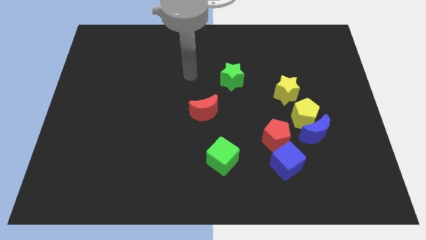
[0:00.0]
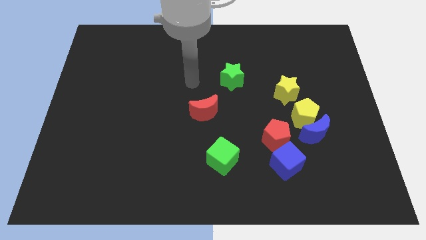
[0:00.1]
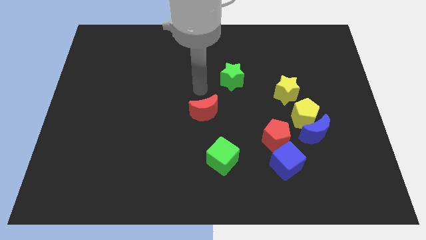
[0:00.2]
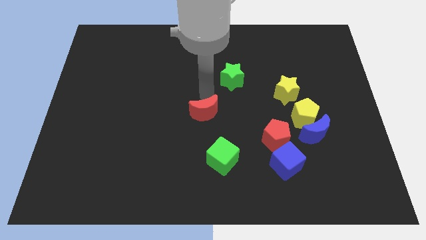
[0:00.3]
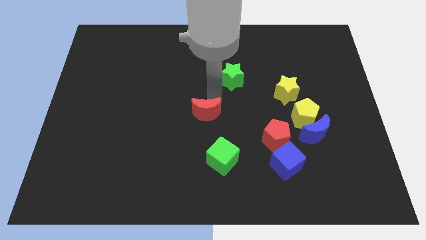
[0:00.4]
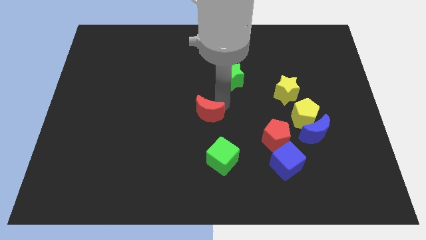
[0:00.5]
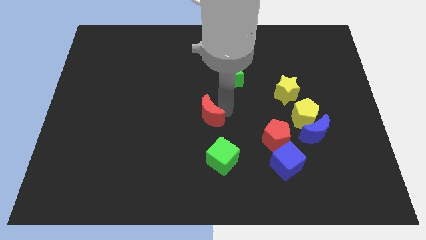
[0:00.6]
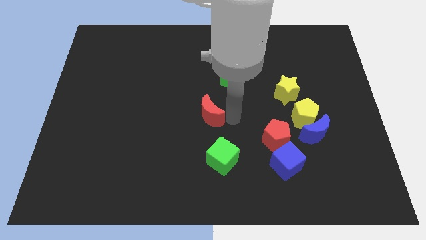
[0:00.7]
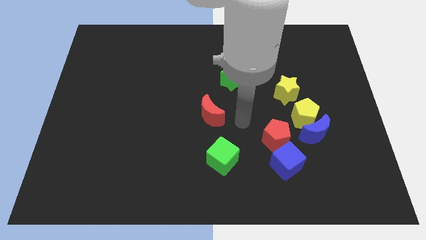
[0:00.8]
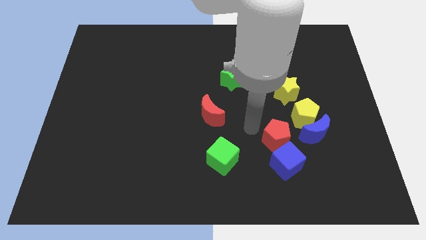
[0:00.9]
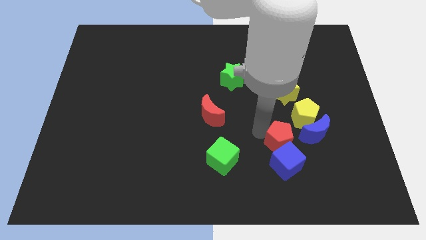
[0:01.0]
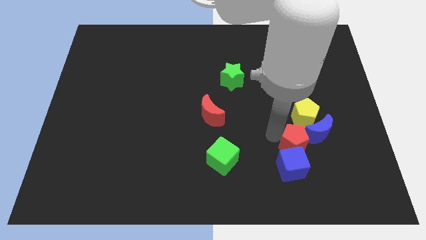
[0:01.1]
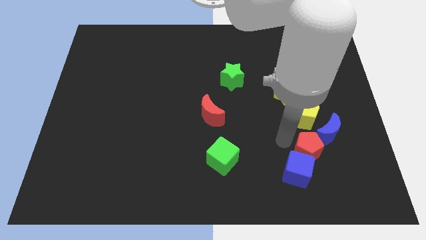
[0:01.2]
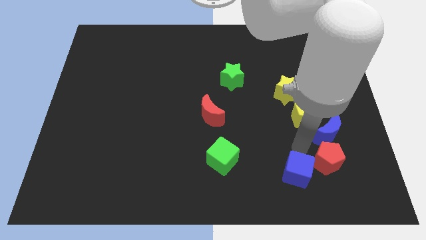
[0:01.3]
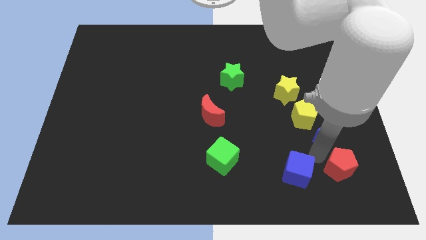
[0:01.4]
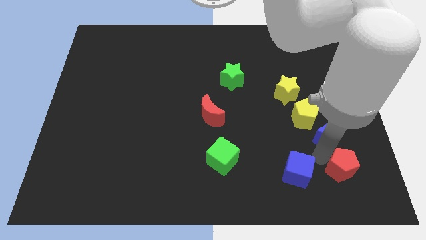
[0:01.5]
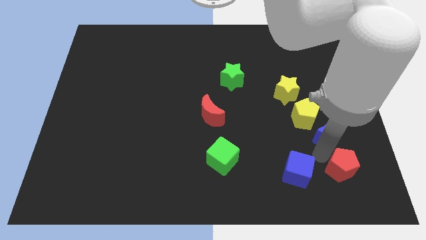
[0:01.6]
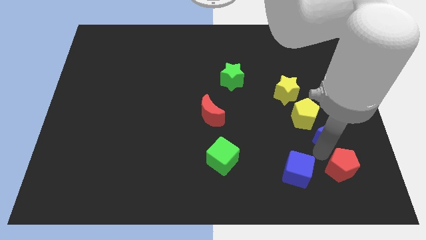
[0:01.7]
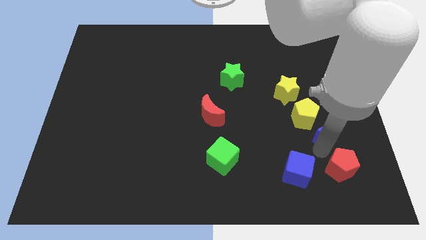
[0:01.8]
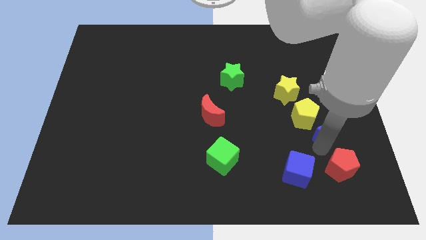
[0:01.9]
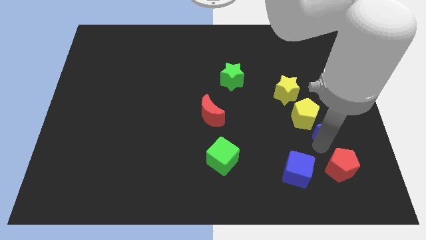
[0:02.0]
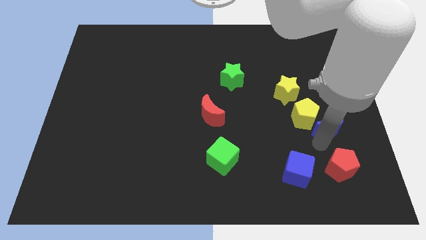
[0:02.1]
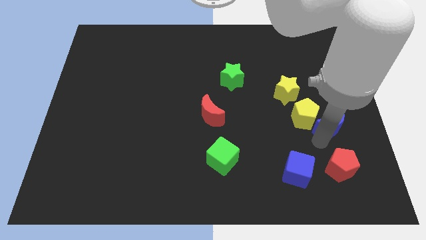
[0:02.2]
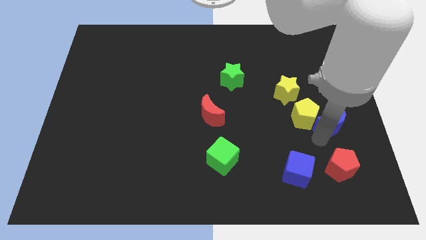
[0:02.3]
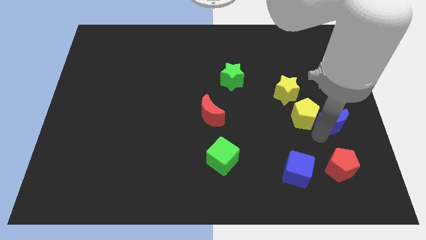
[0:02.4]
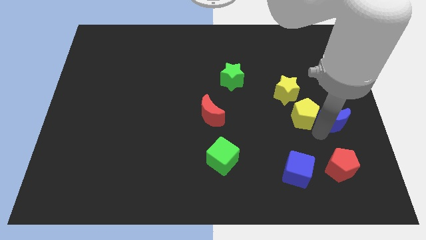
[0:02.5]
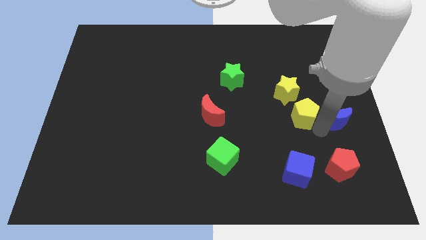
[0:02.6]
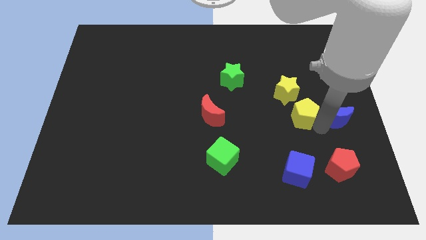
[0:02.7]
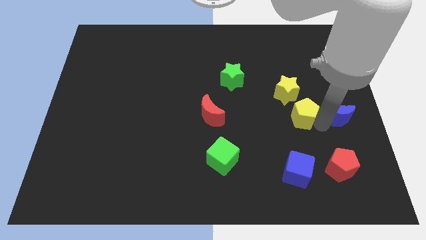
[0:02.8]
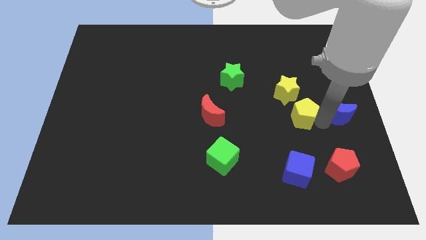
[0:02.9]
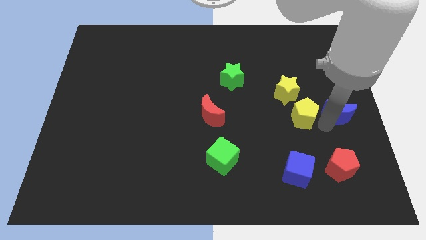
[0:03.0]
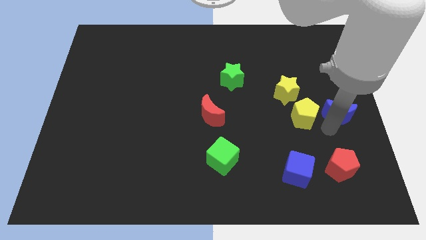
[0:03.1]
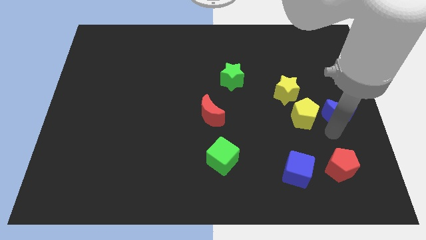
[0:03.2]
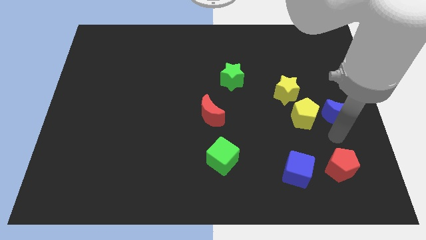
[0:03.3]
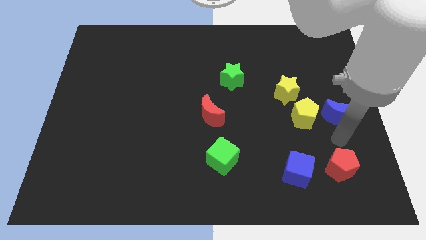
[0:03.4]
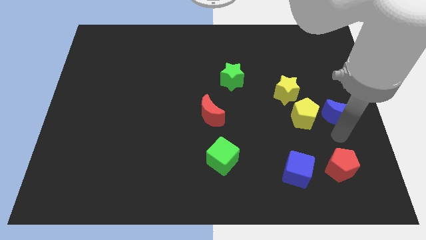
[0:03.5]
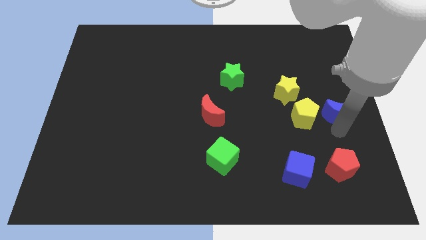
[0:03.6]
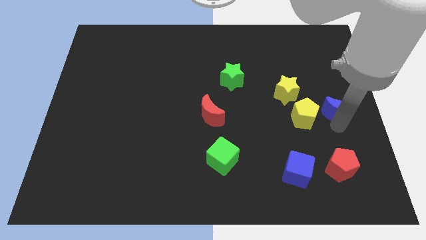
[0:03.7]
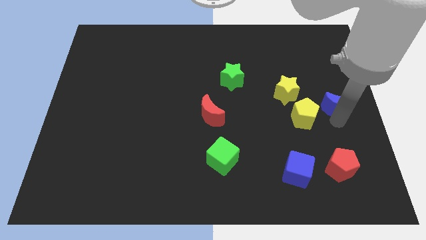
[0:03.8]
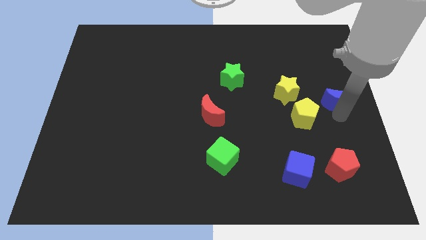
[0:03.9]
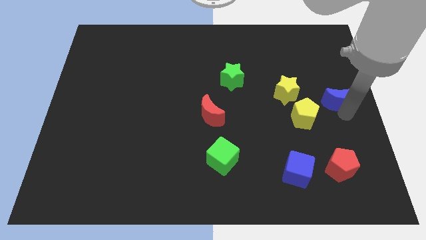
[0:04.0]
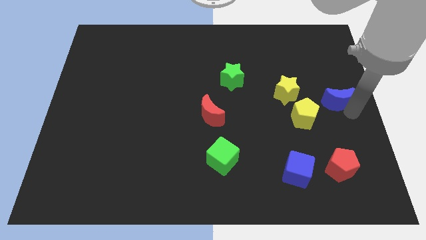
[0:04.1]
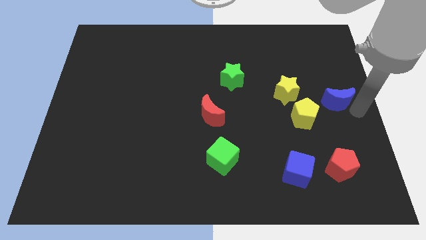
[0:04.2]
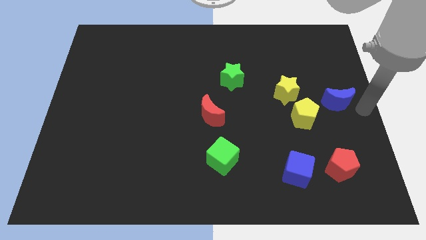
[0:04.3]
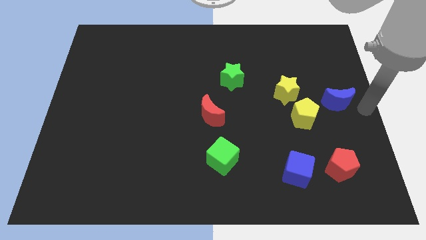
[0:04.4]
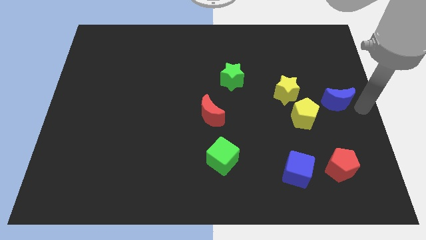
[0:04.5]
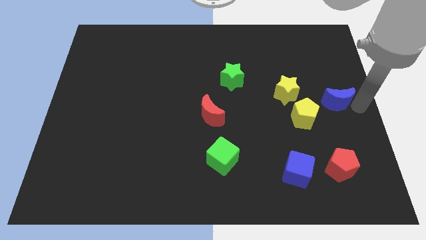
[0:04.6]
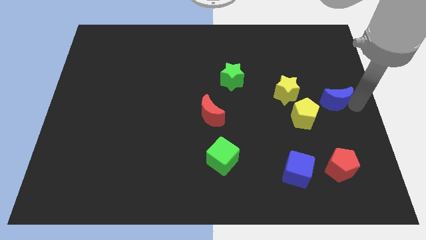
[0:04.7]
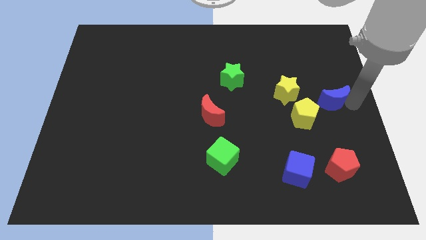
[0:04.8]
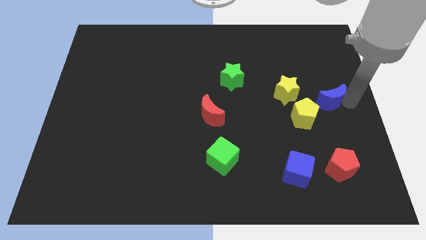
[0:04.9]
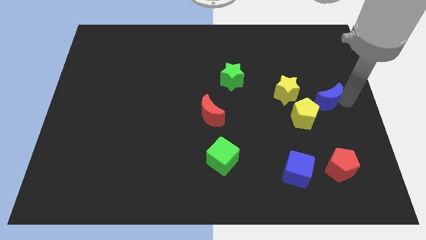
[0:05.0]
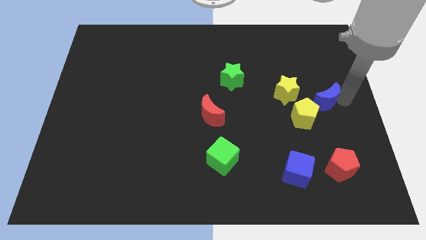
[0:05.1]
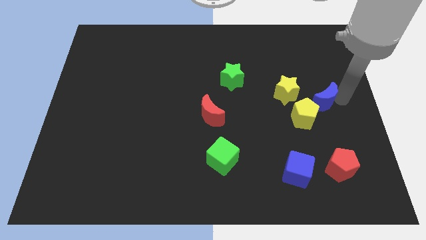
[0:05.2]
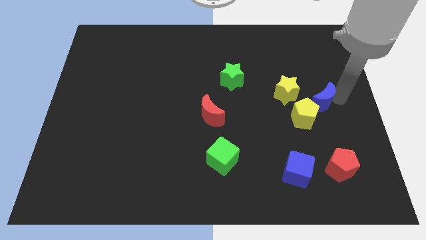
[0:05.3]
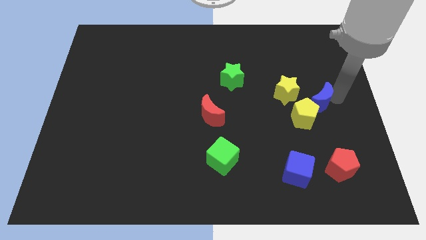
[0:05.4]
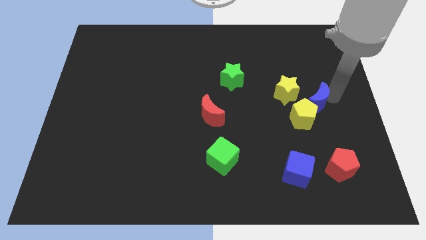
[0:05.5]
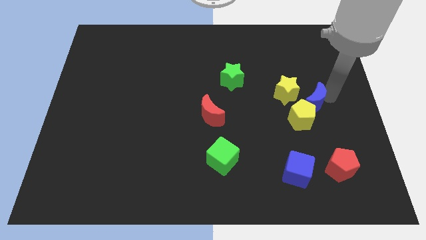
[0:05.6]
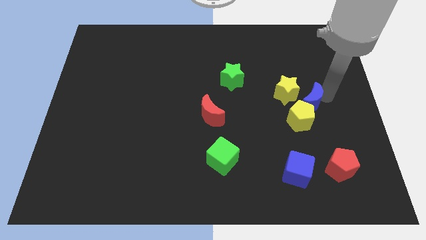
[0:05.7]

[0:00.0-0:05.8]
push the blue moon towards the yellow star

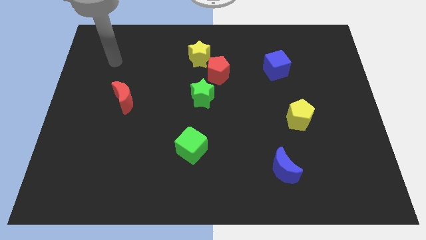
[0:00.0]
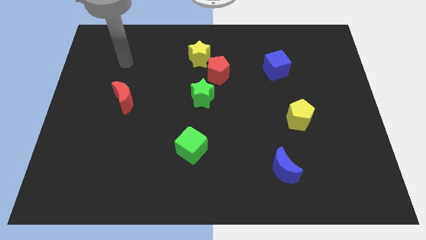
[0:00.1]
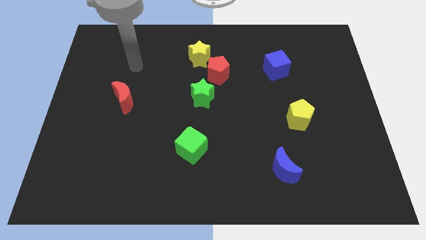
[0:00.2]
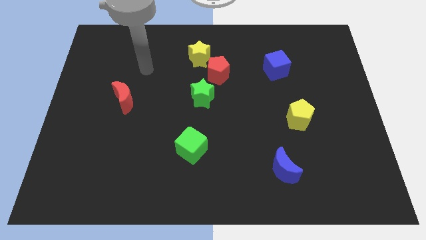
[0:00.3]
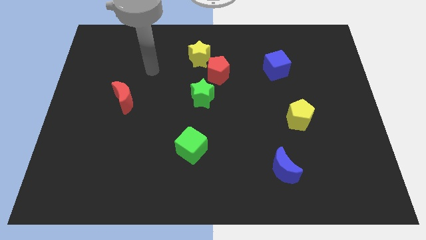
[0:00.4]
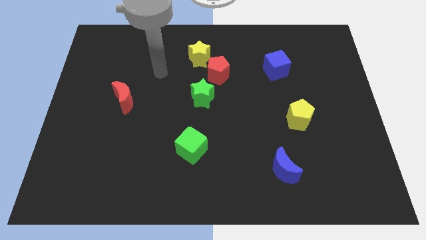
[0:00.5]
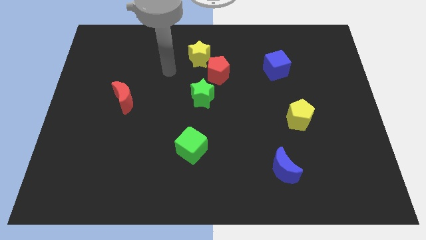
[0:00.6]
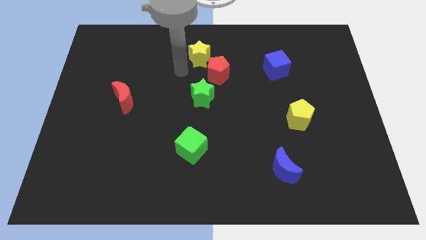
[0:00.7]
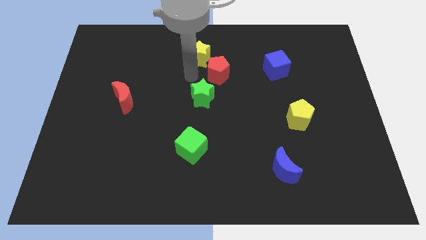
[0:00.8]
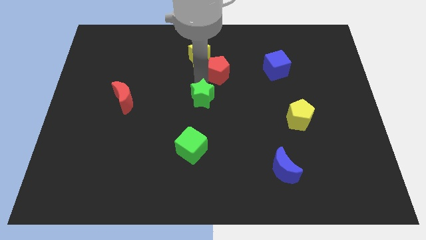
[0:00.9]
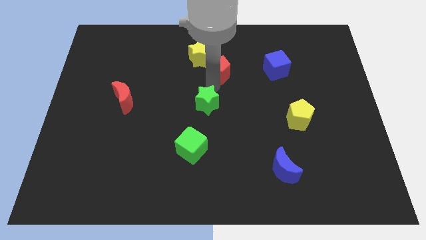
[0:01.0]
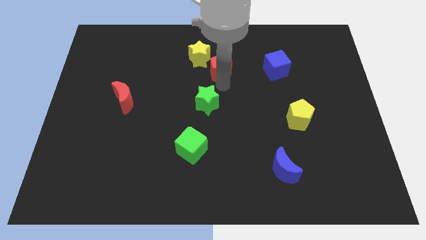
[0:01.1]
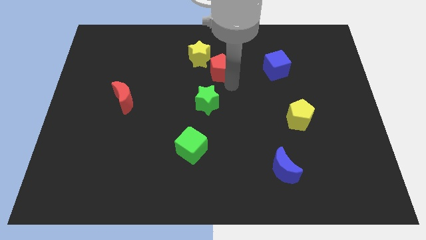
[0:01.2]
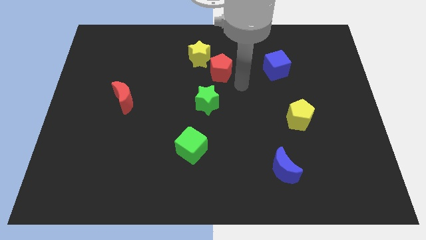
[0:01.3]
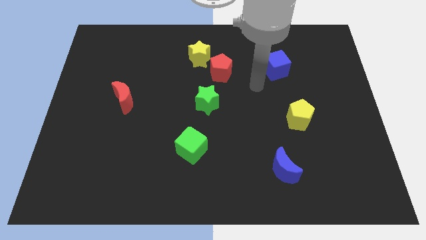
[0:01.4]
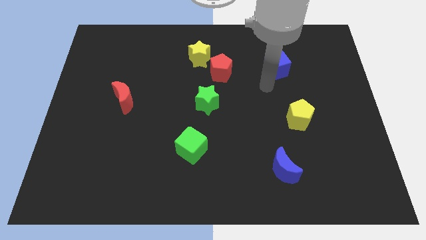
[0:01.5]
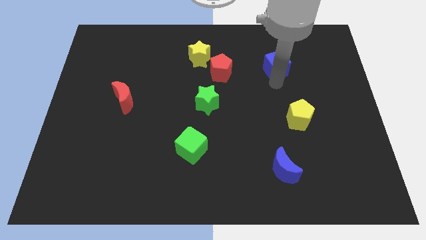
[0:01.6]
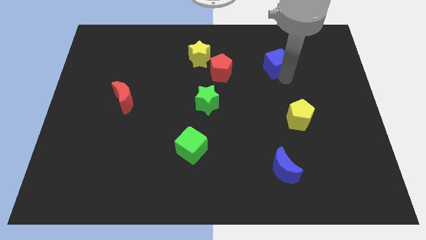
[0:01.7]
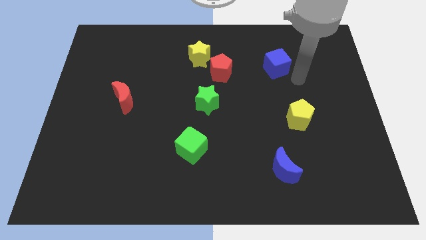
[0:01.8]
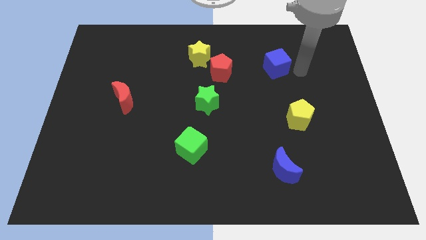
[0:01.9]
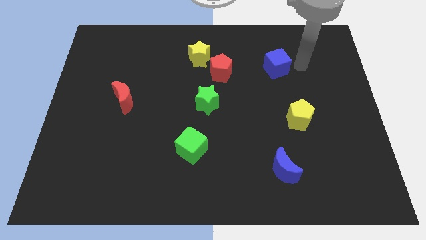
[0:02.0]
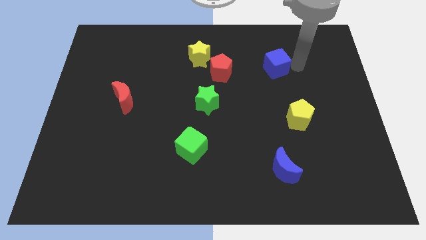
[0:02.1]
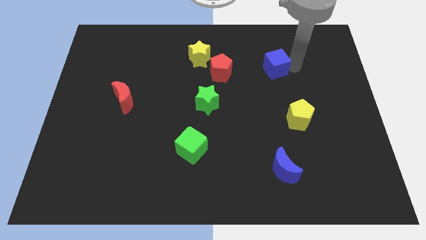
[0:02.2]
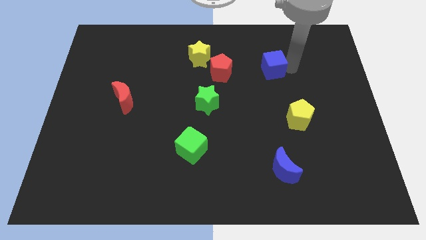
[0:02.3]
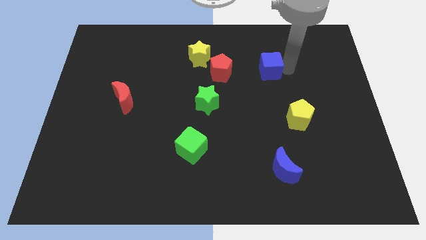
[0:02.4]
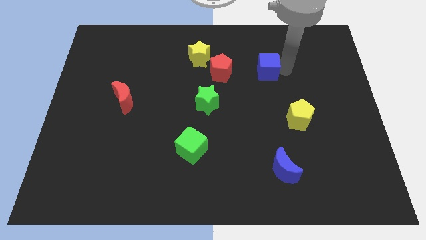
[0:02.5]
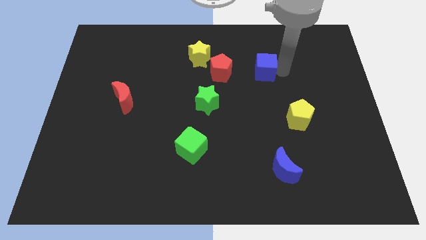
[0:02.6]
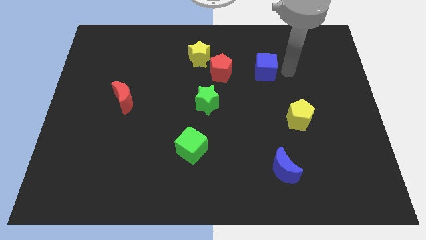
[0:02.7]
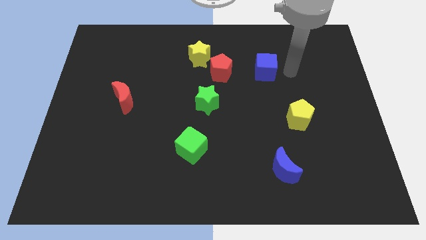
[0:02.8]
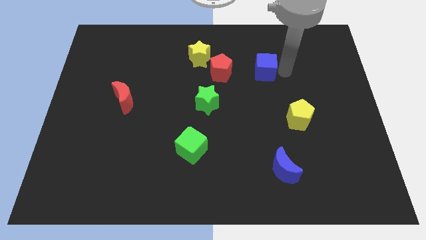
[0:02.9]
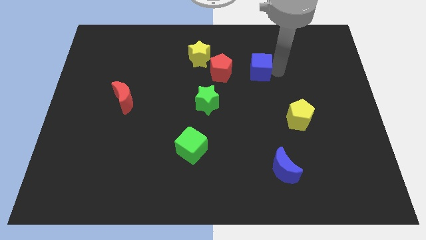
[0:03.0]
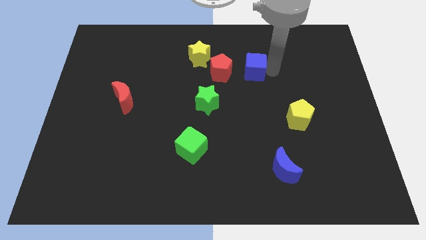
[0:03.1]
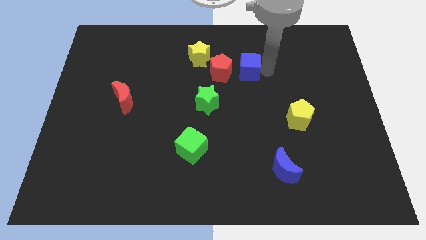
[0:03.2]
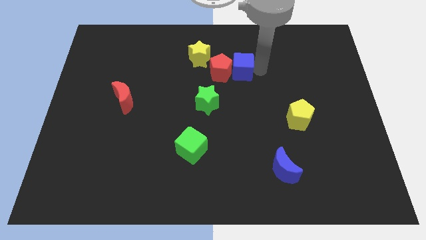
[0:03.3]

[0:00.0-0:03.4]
slide the blue cube to the red pentagon
